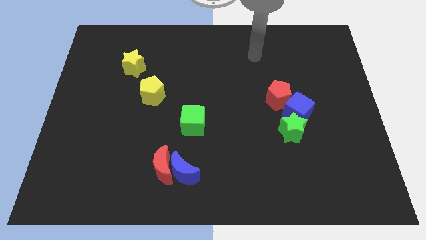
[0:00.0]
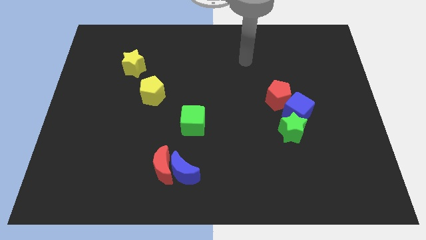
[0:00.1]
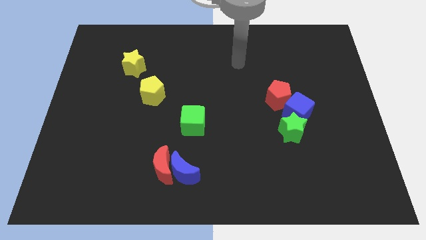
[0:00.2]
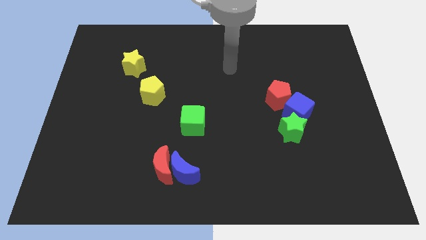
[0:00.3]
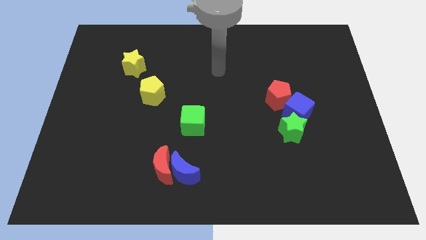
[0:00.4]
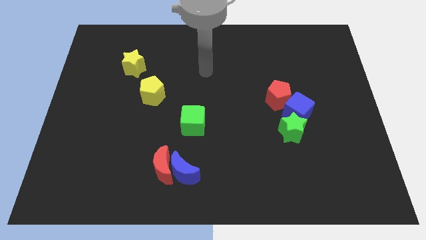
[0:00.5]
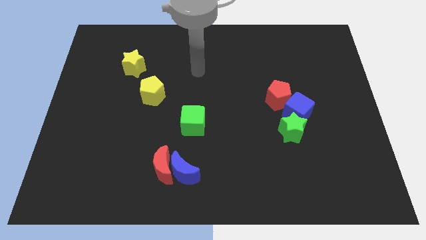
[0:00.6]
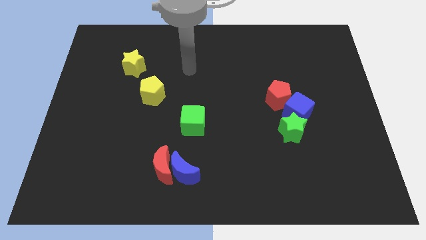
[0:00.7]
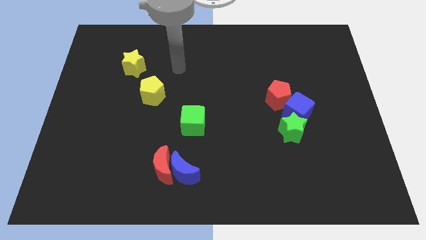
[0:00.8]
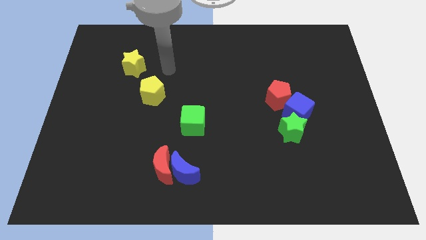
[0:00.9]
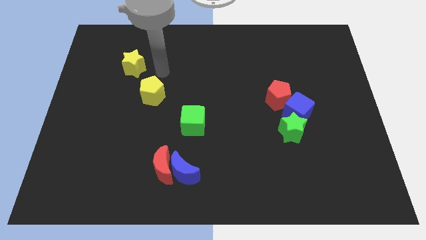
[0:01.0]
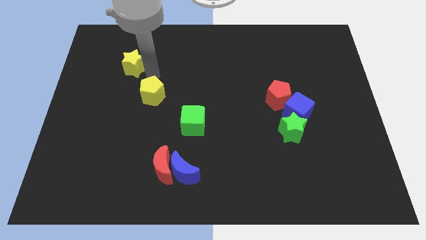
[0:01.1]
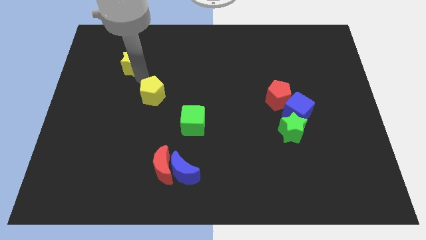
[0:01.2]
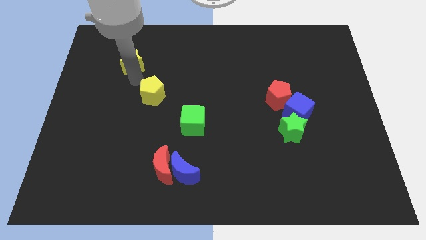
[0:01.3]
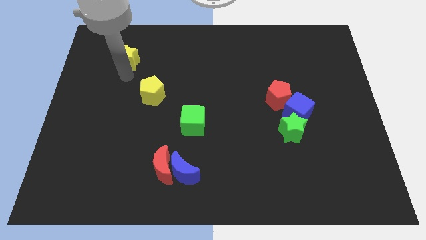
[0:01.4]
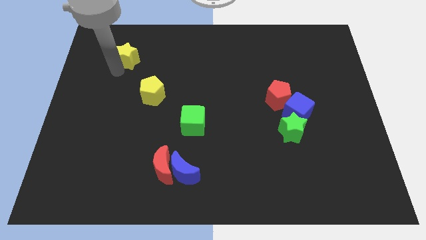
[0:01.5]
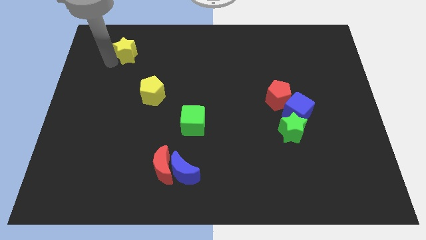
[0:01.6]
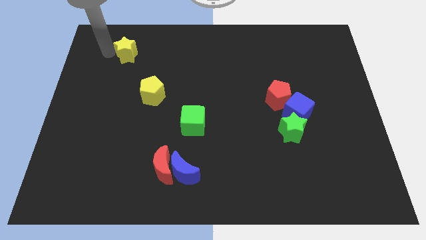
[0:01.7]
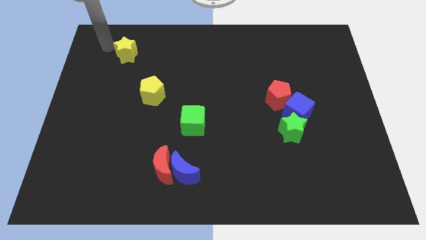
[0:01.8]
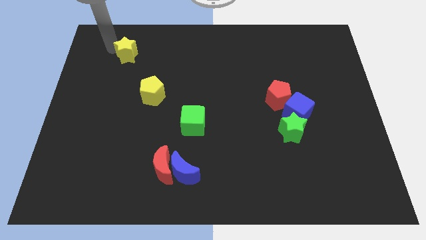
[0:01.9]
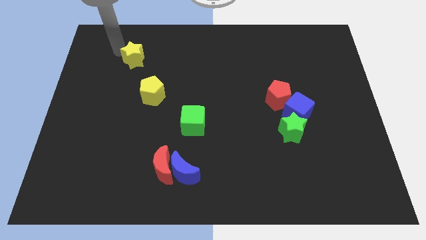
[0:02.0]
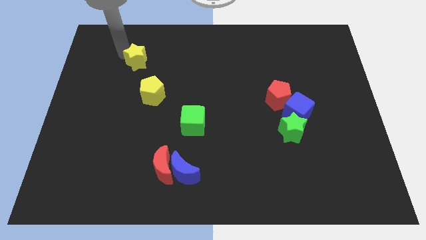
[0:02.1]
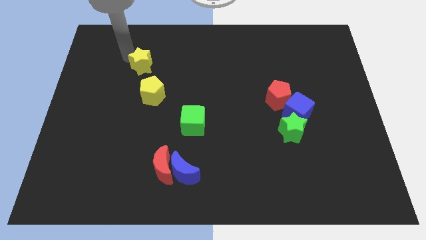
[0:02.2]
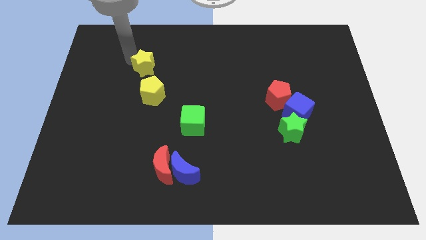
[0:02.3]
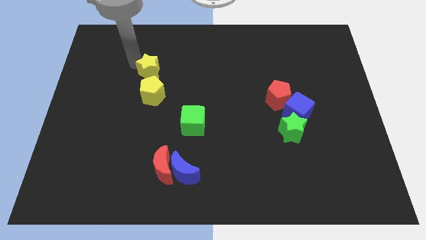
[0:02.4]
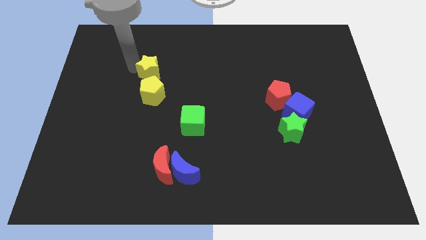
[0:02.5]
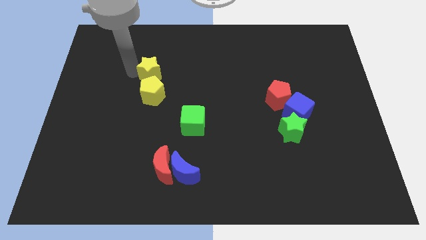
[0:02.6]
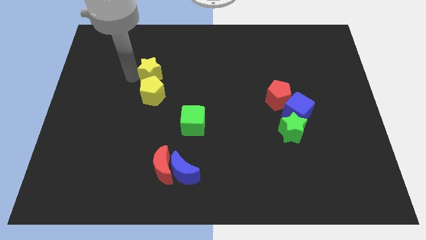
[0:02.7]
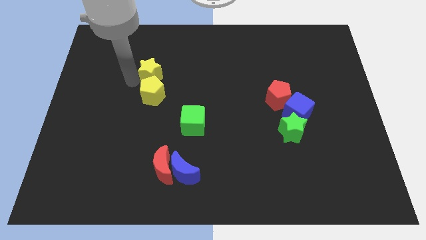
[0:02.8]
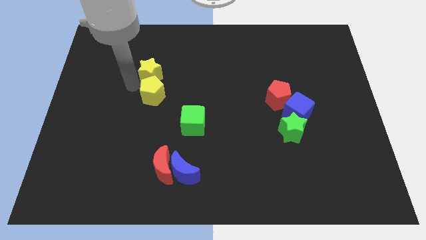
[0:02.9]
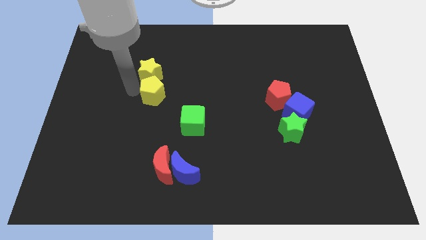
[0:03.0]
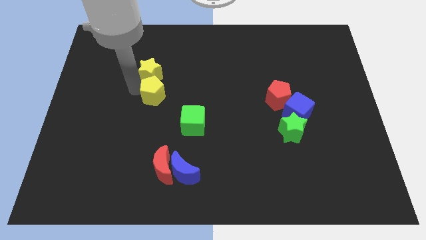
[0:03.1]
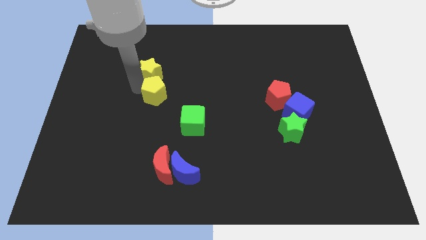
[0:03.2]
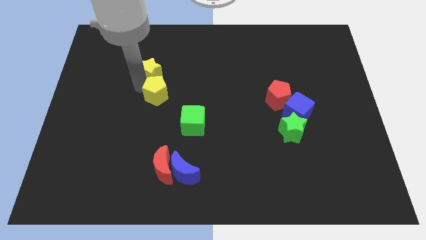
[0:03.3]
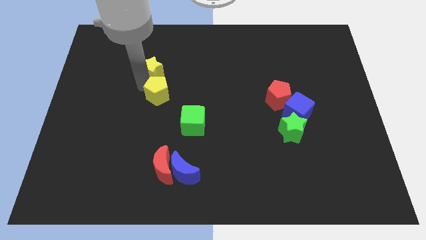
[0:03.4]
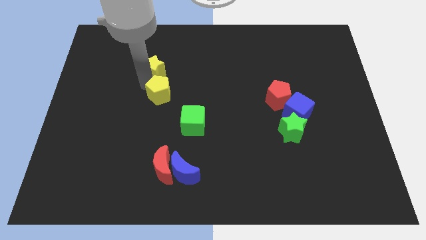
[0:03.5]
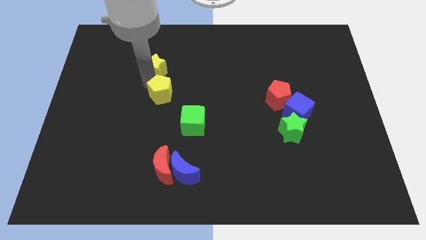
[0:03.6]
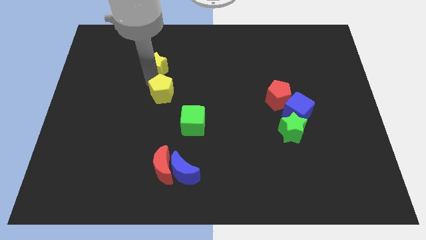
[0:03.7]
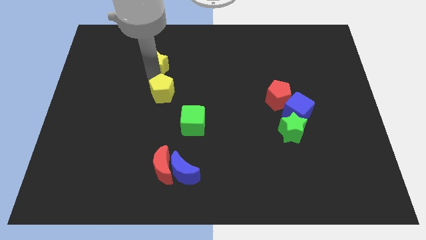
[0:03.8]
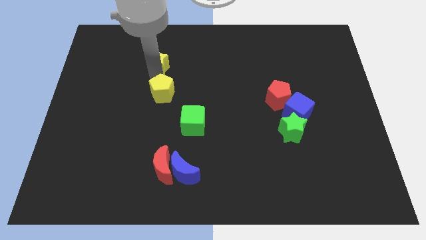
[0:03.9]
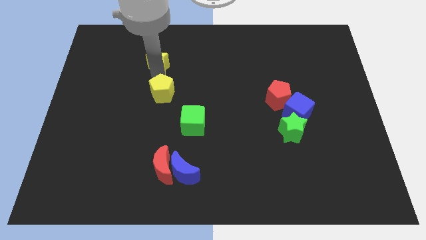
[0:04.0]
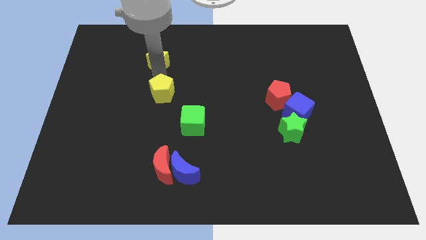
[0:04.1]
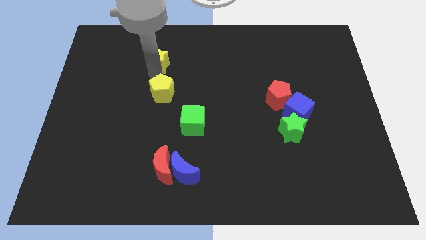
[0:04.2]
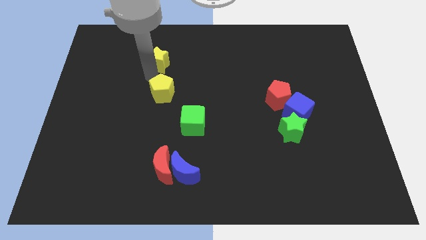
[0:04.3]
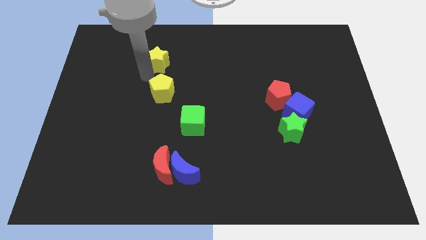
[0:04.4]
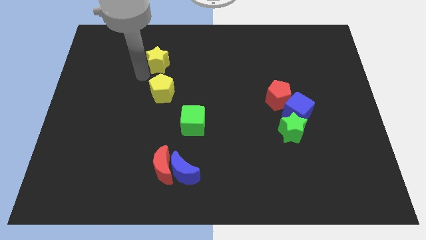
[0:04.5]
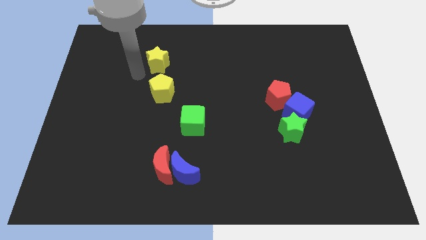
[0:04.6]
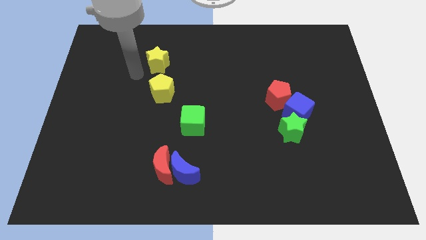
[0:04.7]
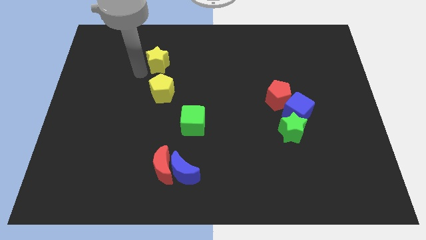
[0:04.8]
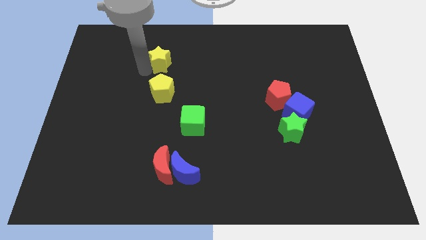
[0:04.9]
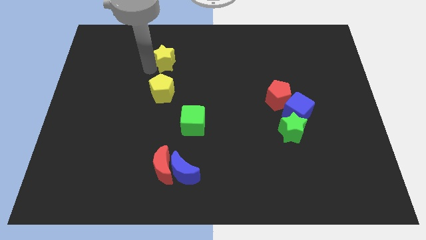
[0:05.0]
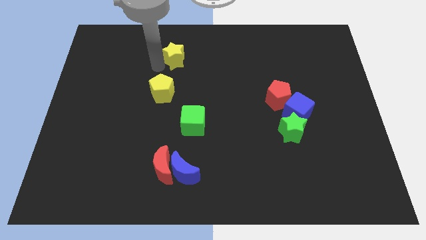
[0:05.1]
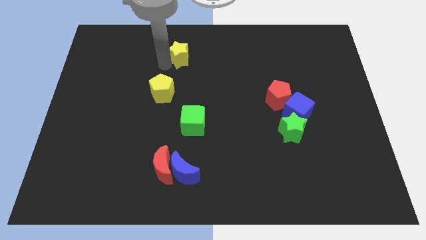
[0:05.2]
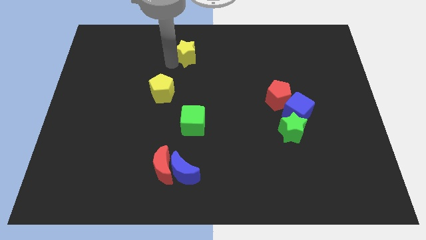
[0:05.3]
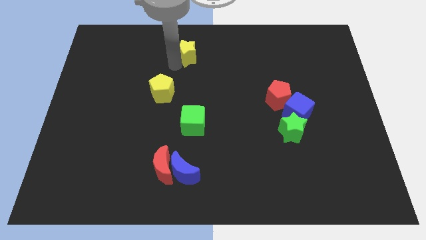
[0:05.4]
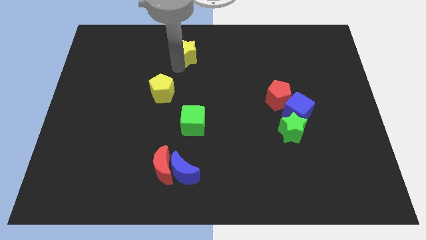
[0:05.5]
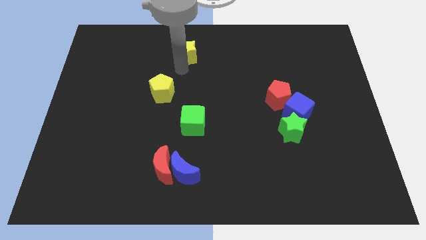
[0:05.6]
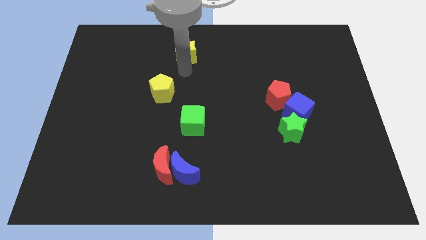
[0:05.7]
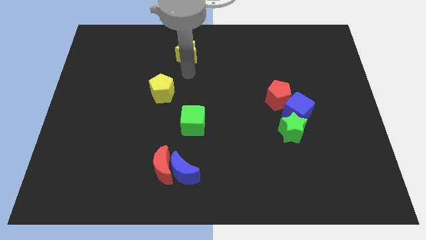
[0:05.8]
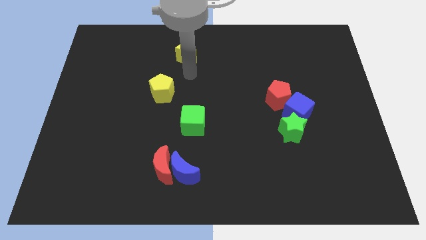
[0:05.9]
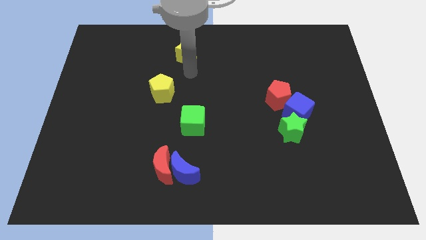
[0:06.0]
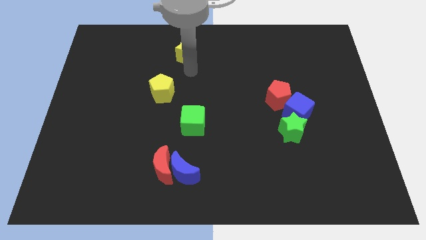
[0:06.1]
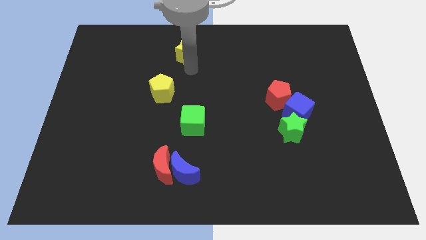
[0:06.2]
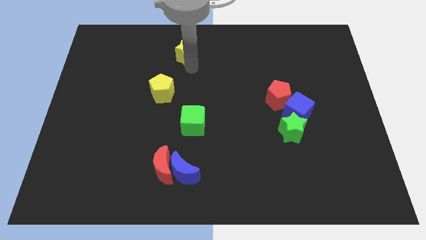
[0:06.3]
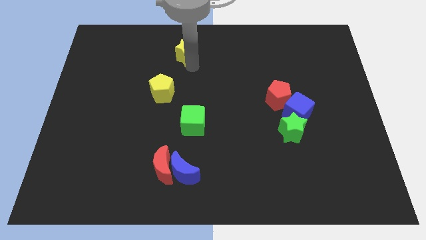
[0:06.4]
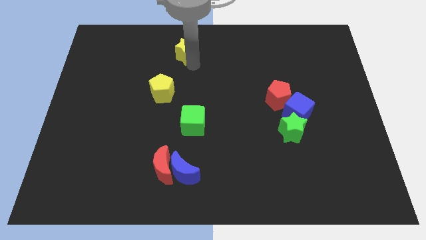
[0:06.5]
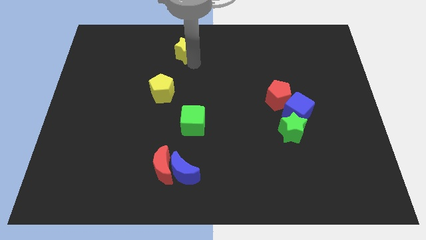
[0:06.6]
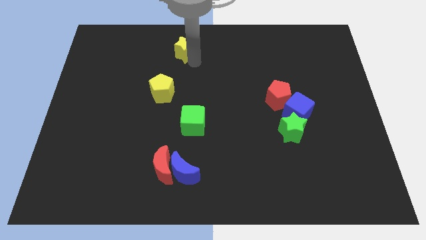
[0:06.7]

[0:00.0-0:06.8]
push the yellow star to the top

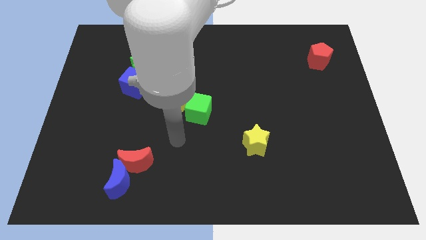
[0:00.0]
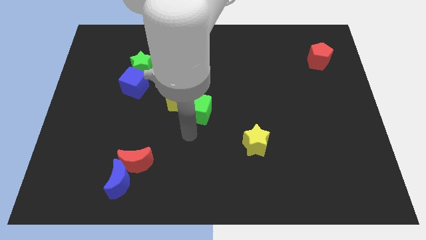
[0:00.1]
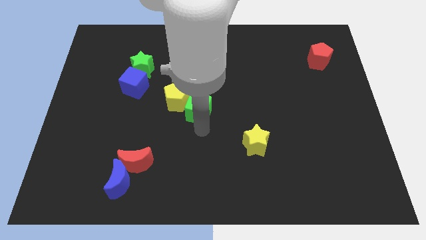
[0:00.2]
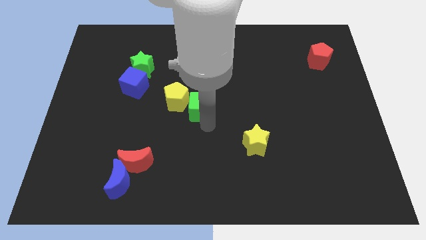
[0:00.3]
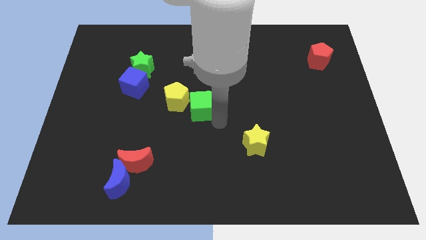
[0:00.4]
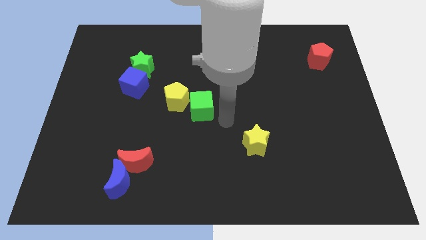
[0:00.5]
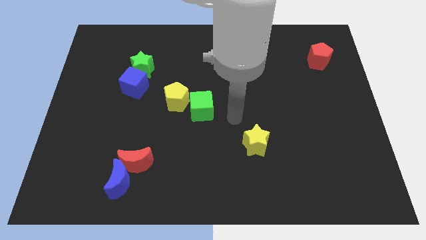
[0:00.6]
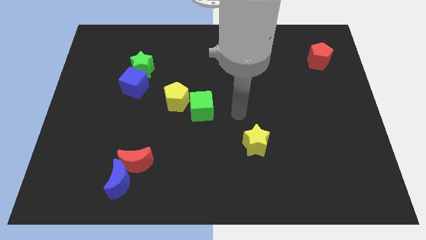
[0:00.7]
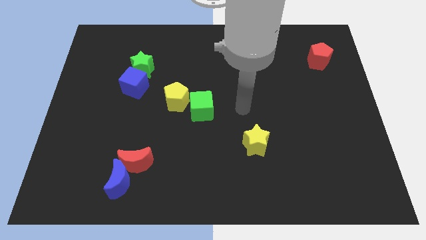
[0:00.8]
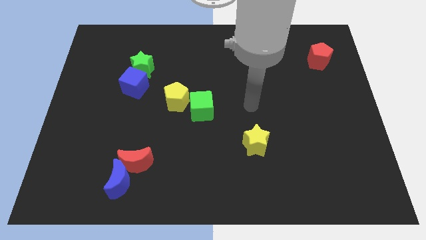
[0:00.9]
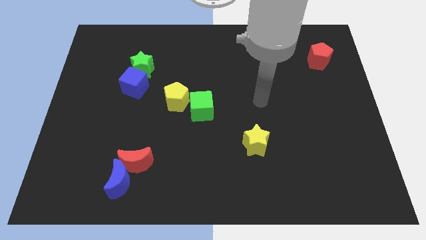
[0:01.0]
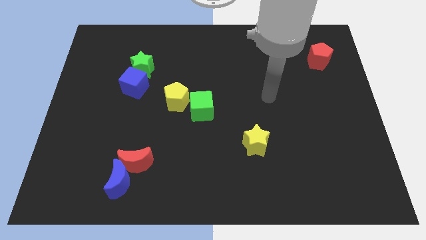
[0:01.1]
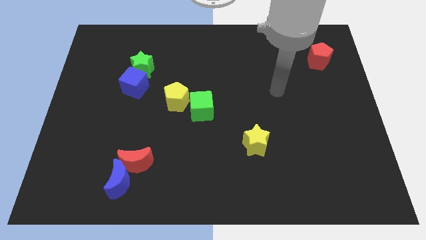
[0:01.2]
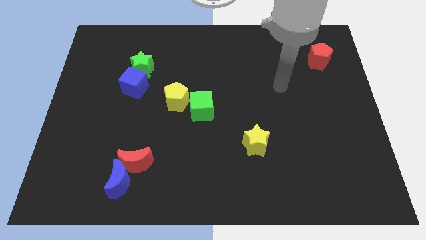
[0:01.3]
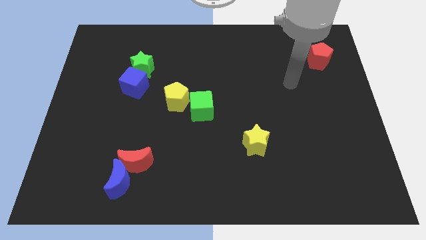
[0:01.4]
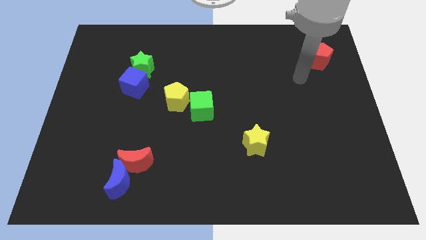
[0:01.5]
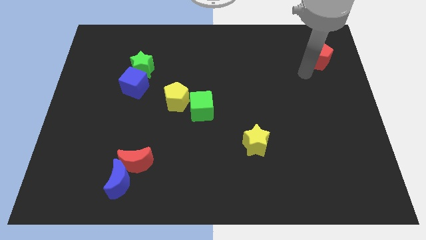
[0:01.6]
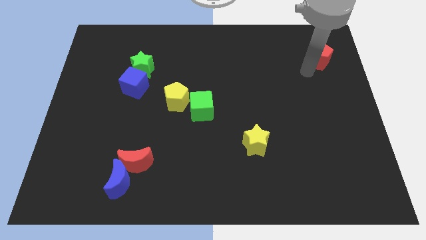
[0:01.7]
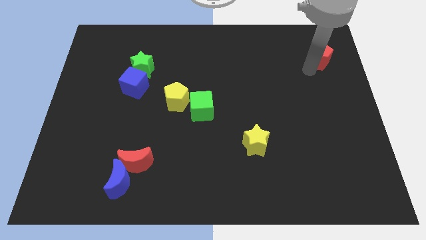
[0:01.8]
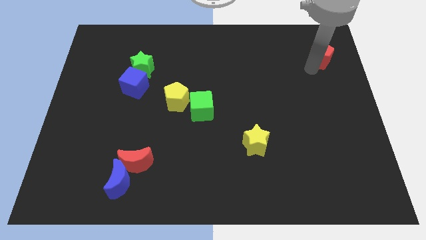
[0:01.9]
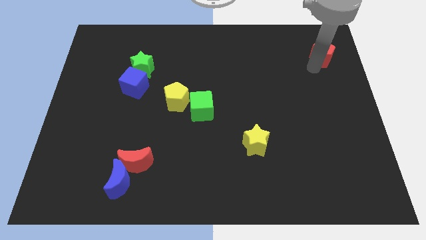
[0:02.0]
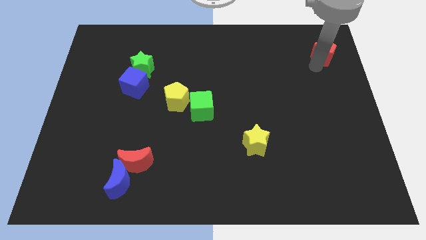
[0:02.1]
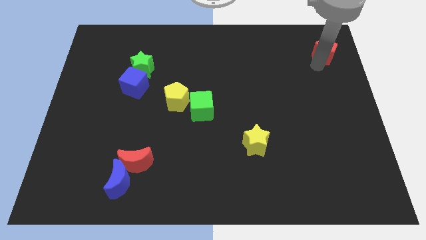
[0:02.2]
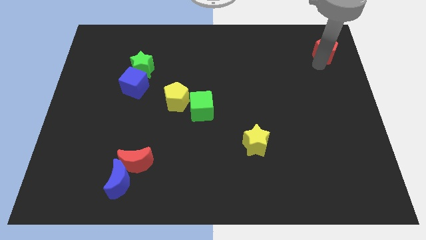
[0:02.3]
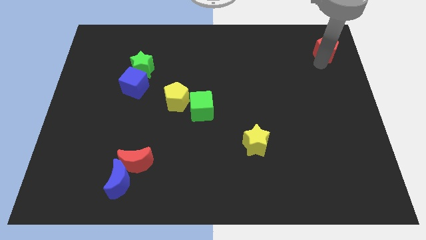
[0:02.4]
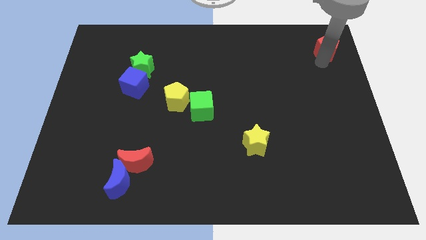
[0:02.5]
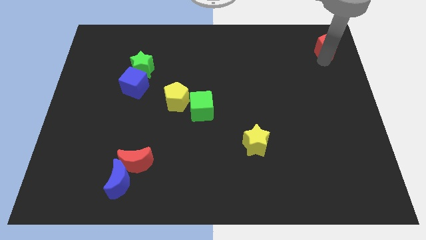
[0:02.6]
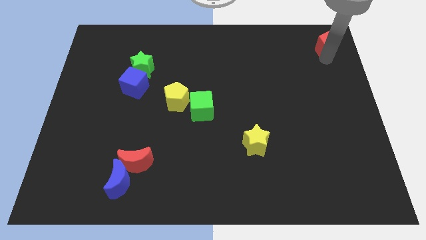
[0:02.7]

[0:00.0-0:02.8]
put the red pentagon to the top right of the board
